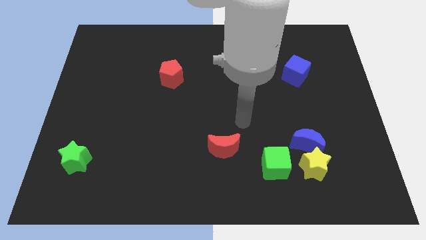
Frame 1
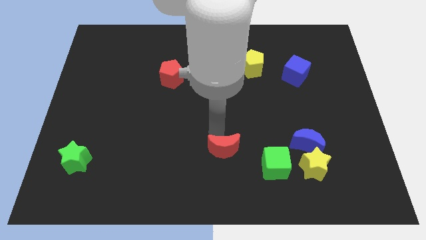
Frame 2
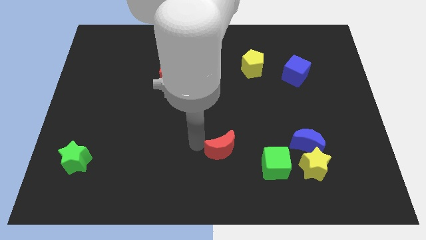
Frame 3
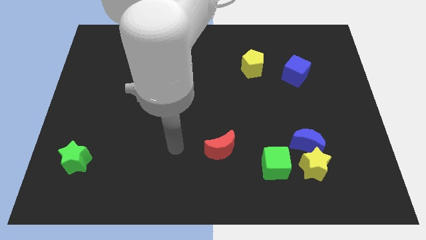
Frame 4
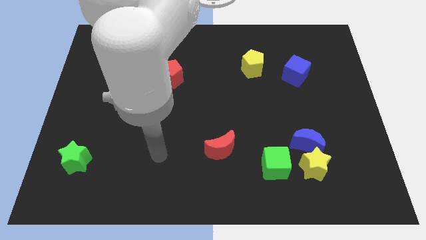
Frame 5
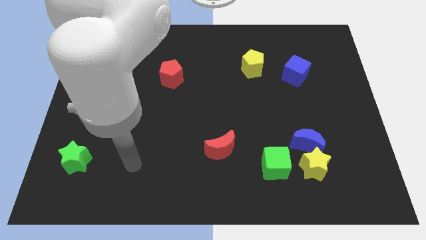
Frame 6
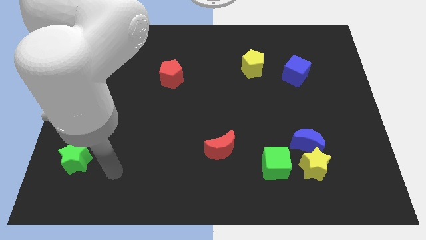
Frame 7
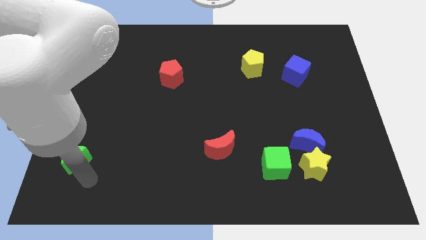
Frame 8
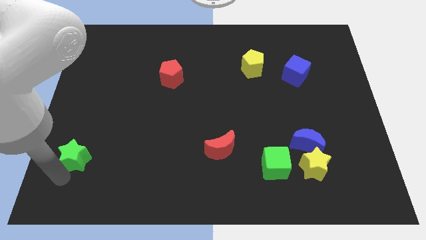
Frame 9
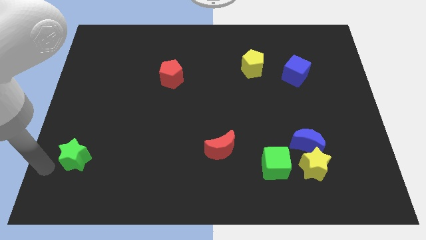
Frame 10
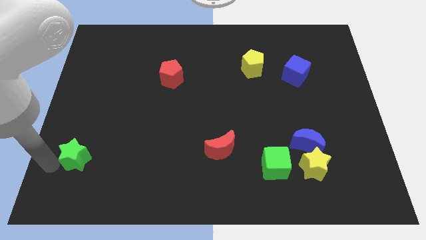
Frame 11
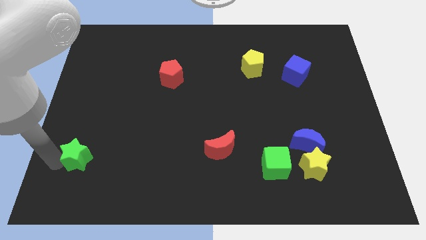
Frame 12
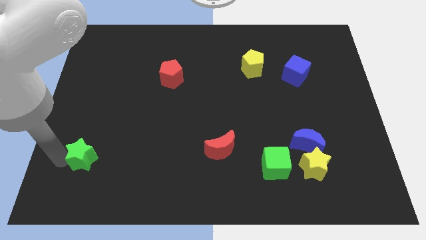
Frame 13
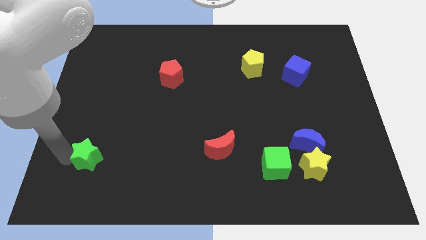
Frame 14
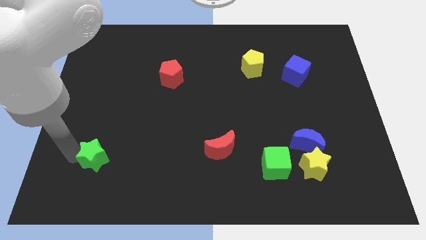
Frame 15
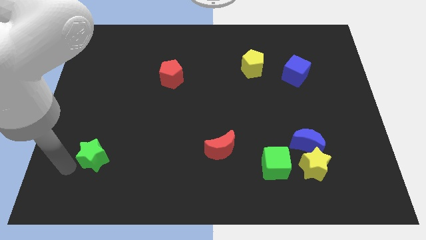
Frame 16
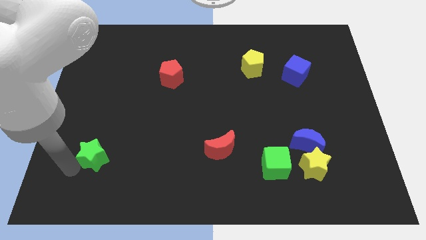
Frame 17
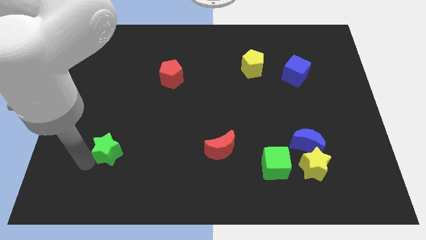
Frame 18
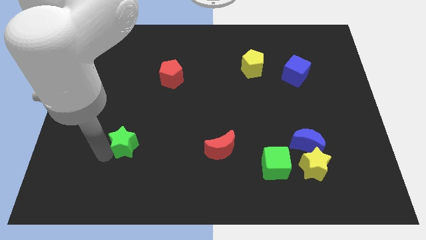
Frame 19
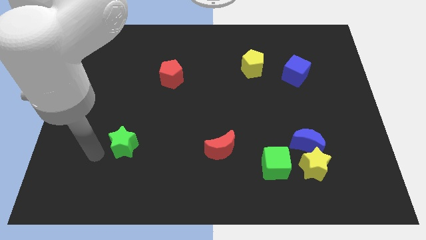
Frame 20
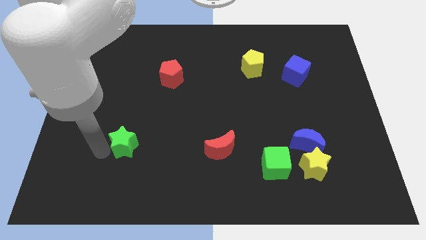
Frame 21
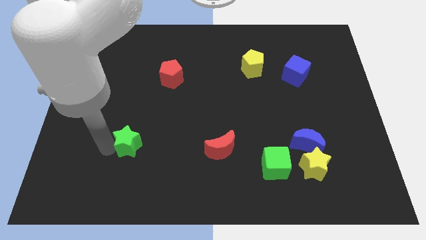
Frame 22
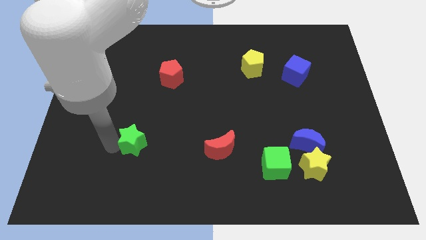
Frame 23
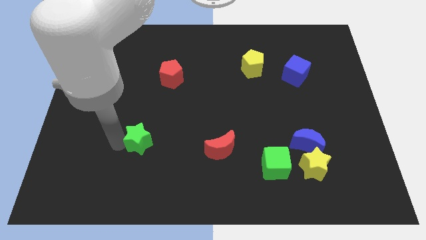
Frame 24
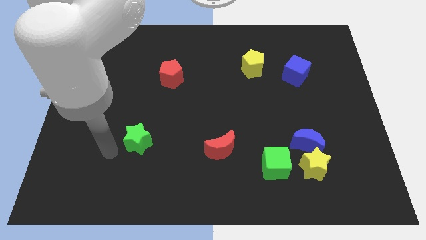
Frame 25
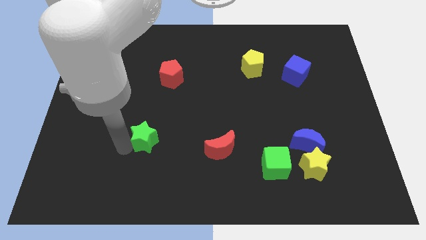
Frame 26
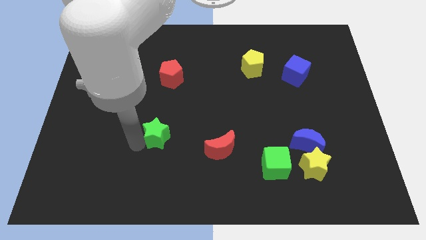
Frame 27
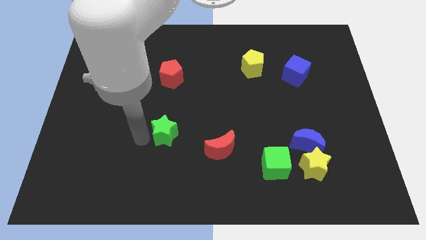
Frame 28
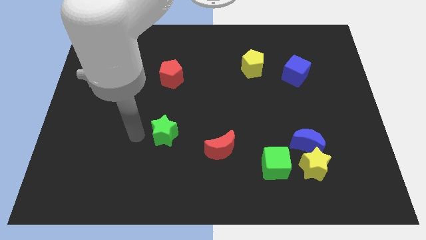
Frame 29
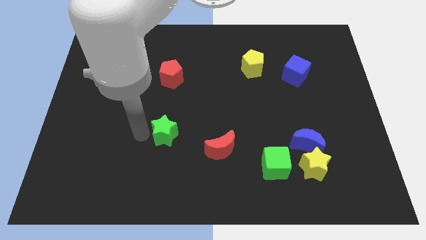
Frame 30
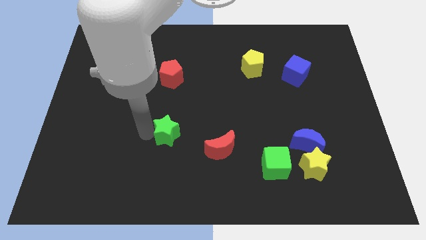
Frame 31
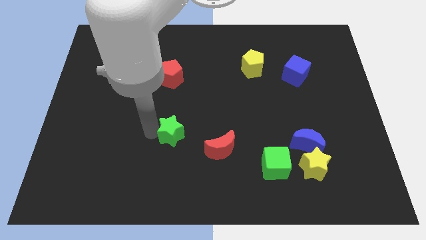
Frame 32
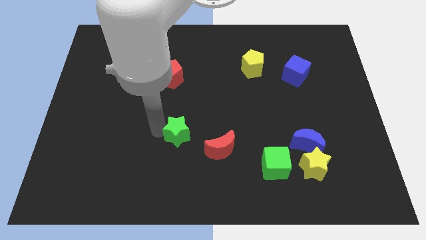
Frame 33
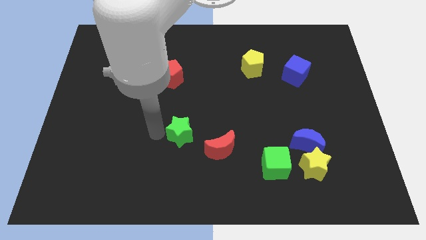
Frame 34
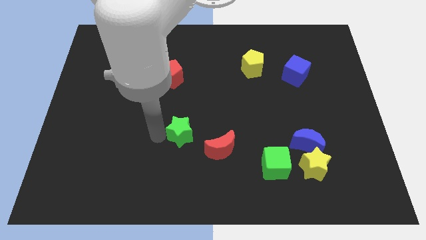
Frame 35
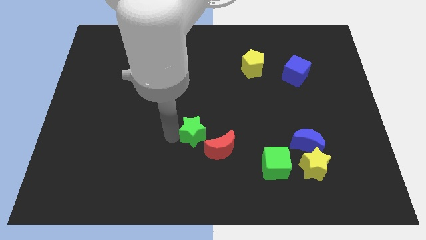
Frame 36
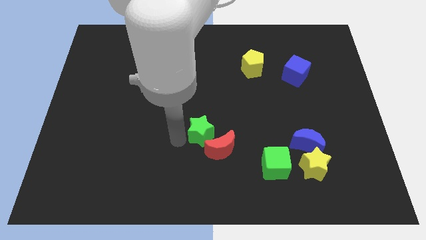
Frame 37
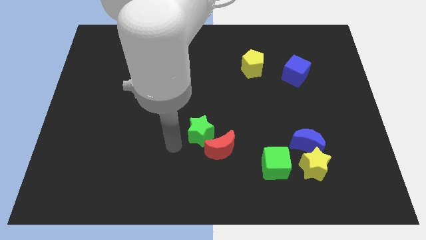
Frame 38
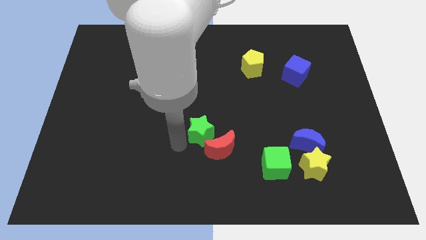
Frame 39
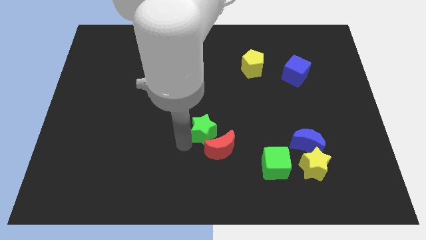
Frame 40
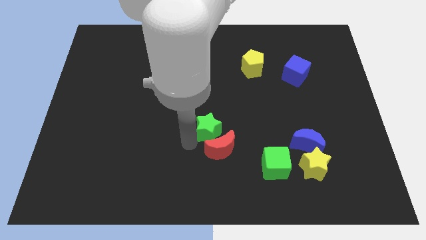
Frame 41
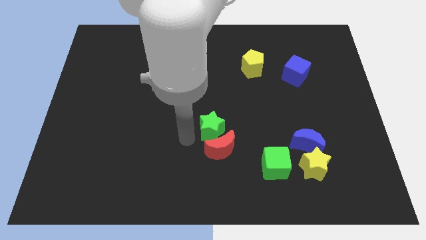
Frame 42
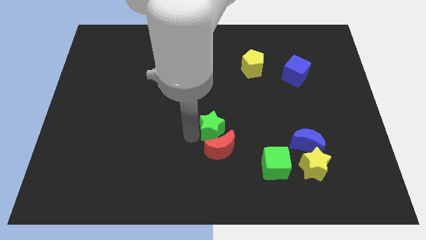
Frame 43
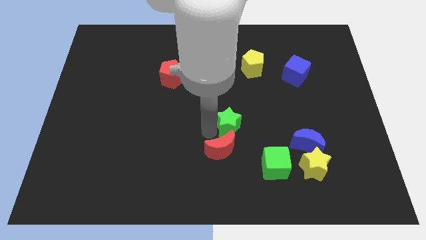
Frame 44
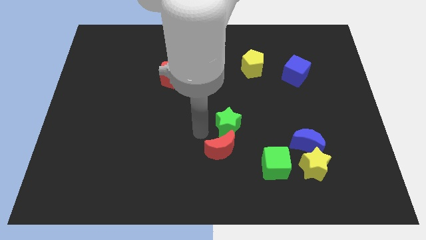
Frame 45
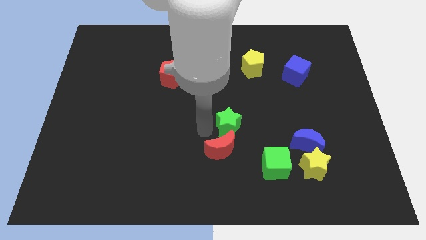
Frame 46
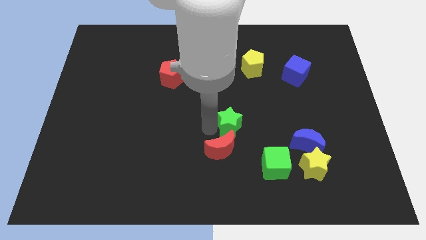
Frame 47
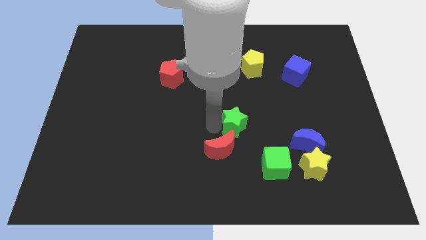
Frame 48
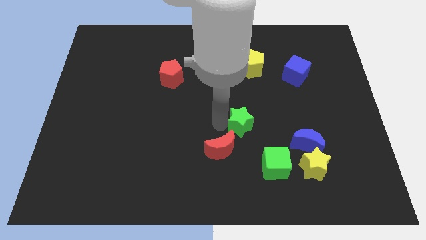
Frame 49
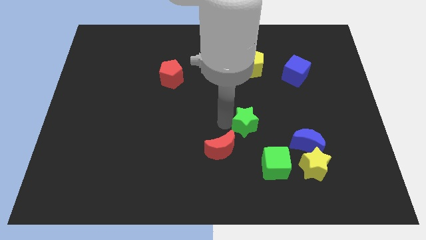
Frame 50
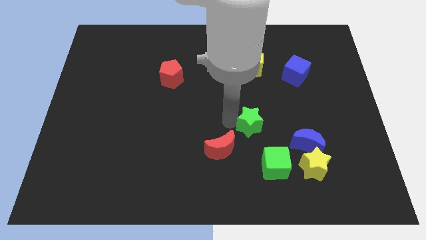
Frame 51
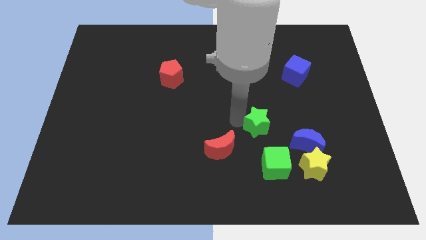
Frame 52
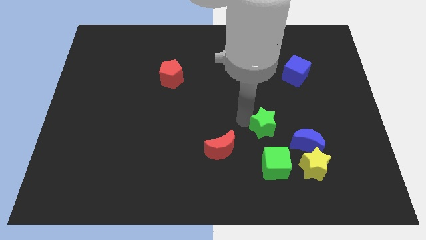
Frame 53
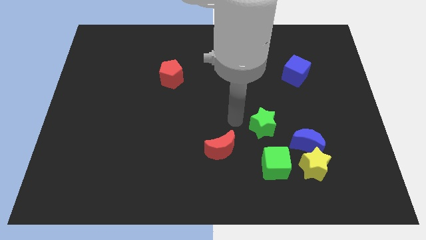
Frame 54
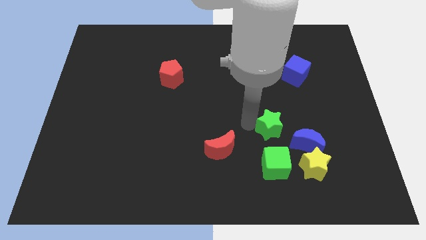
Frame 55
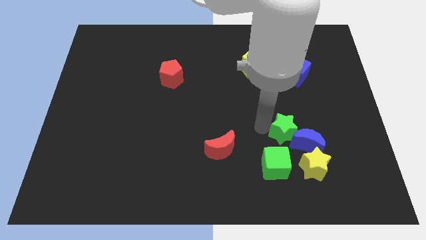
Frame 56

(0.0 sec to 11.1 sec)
slide the green star towards the blue moon

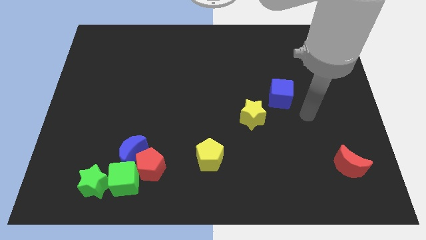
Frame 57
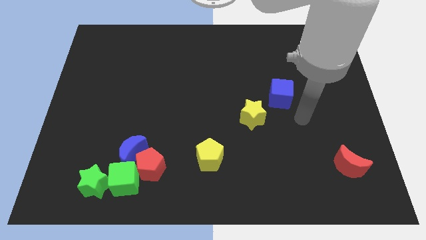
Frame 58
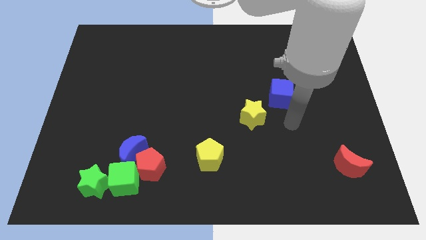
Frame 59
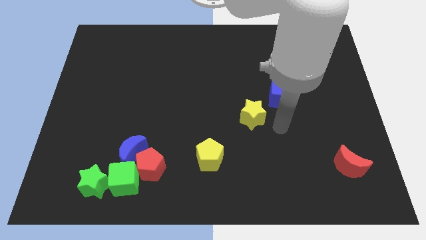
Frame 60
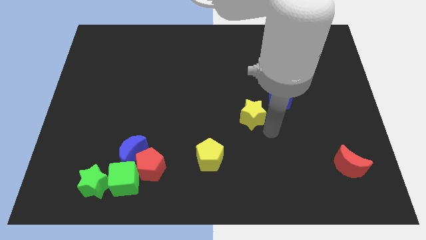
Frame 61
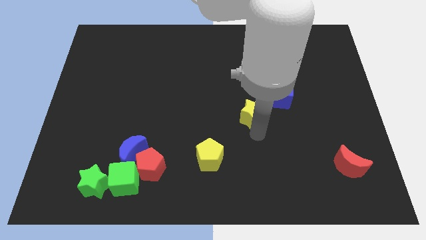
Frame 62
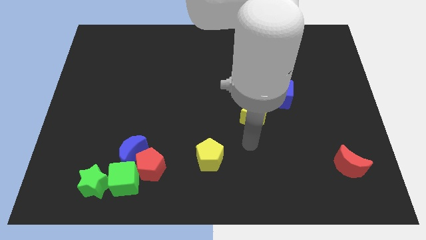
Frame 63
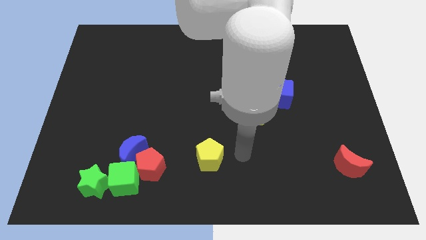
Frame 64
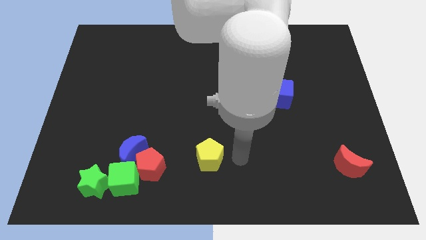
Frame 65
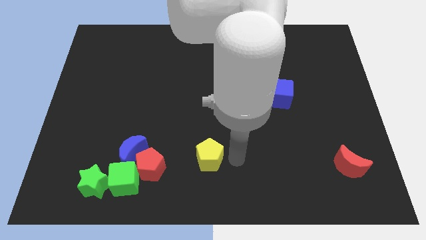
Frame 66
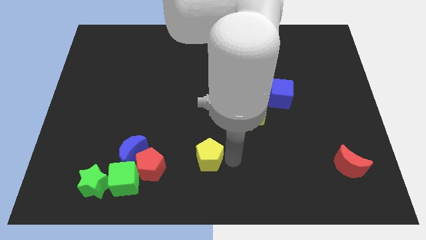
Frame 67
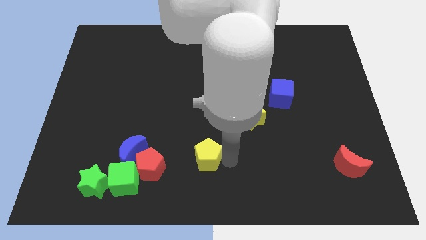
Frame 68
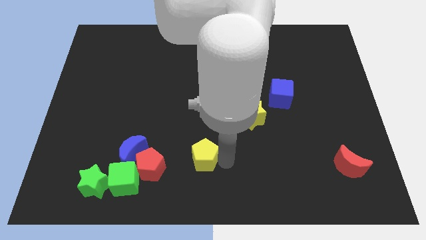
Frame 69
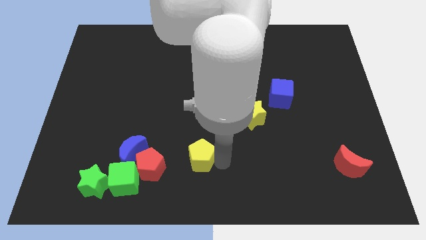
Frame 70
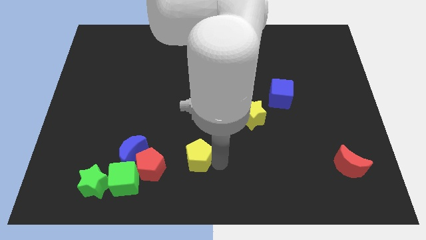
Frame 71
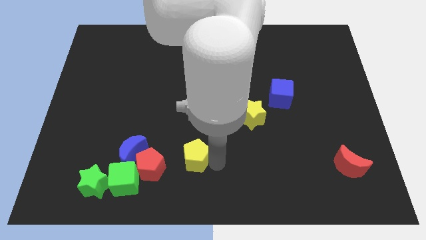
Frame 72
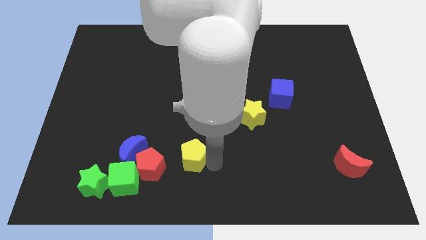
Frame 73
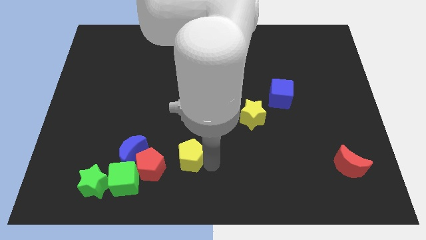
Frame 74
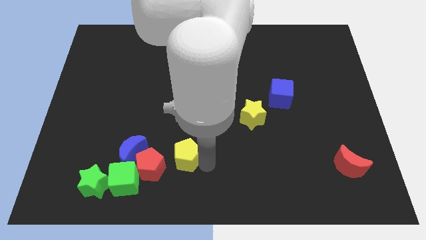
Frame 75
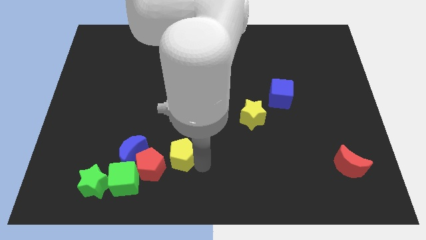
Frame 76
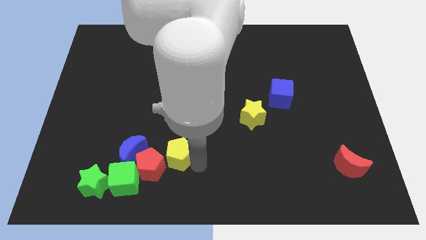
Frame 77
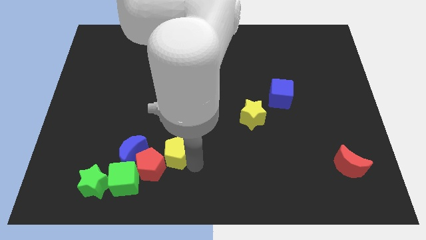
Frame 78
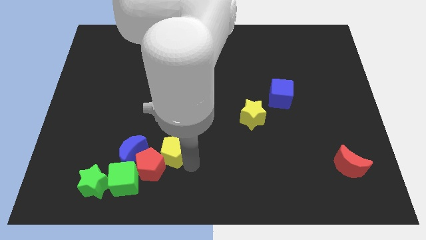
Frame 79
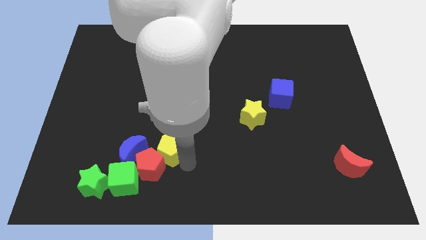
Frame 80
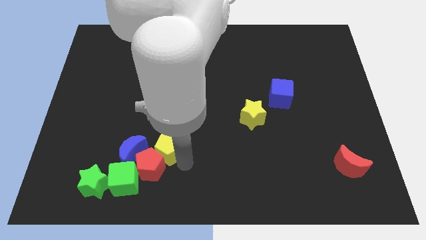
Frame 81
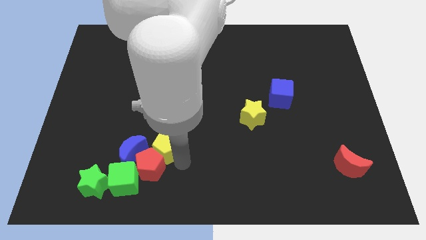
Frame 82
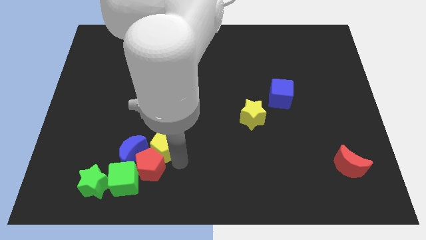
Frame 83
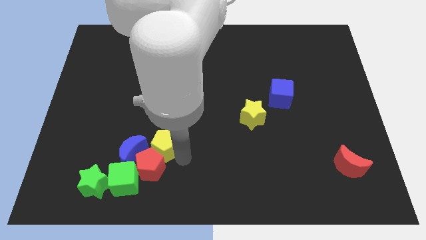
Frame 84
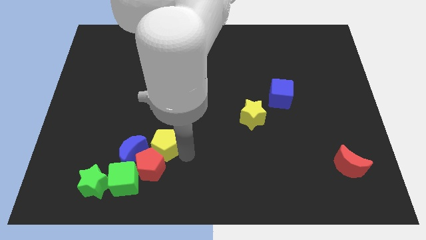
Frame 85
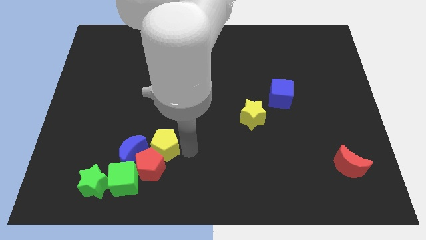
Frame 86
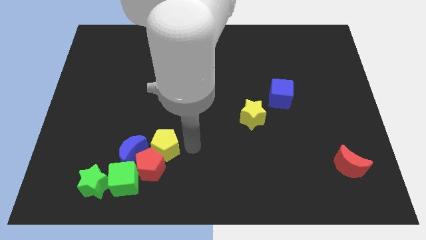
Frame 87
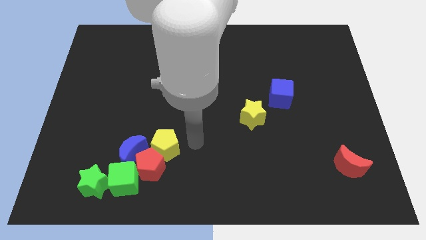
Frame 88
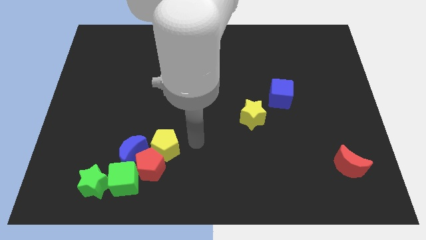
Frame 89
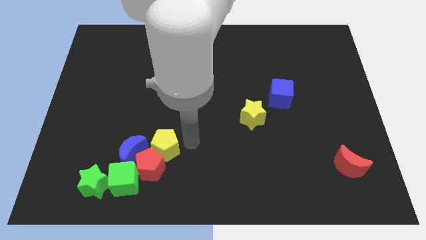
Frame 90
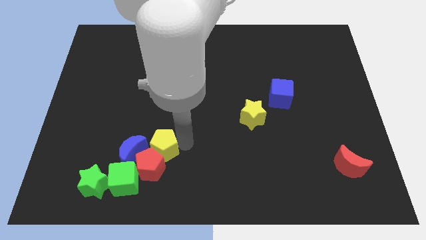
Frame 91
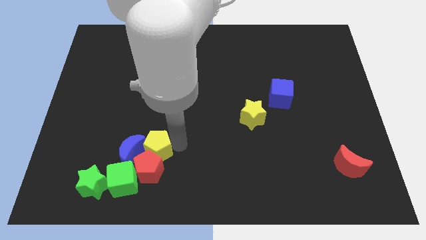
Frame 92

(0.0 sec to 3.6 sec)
move the yellow pentagon to the blue moon
